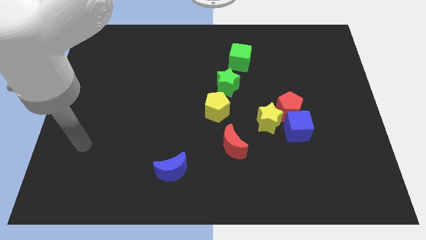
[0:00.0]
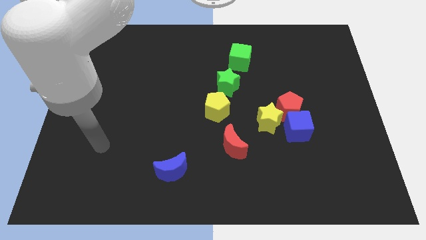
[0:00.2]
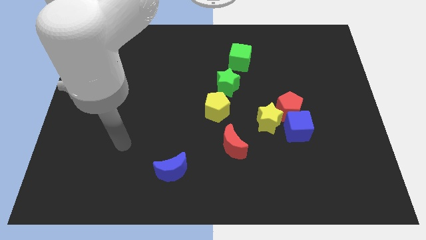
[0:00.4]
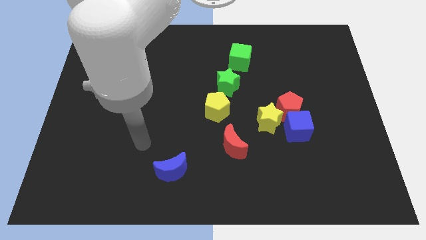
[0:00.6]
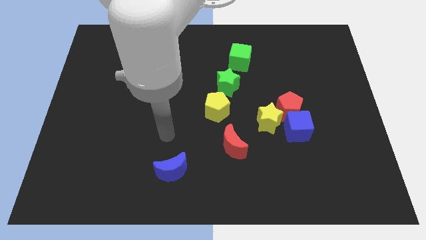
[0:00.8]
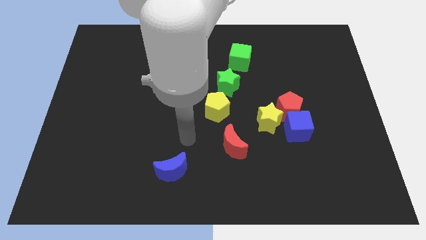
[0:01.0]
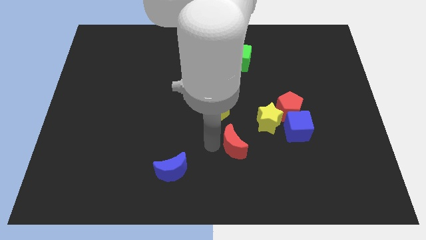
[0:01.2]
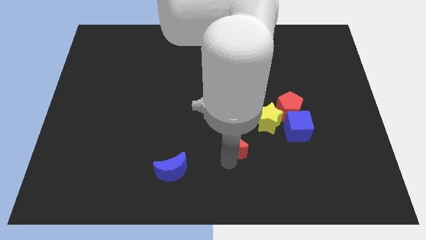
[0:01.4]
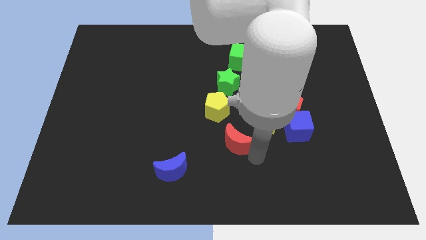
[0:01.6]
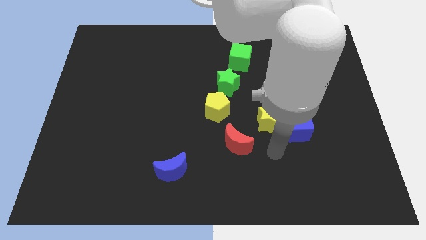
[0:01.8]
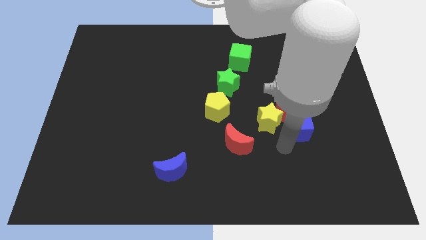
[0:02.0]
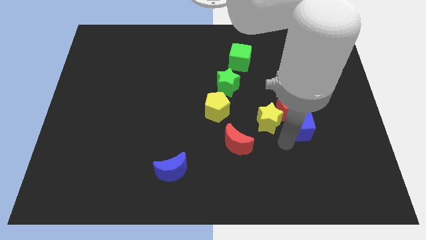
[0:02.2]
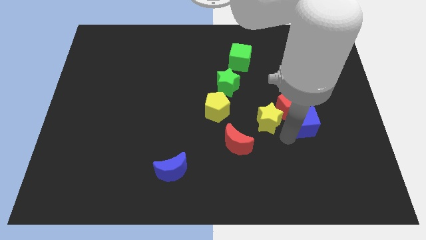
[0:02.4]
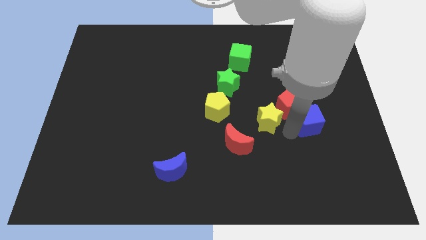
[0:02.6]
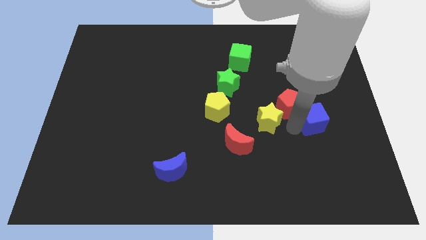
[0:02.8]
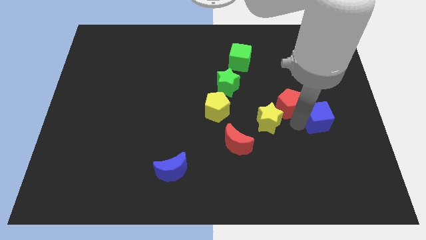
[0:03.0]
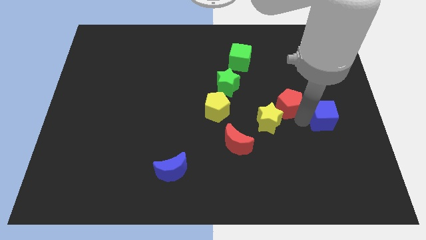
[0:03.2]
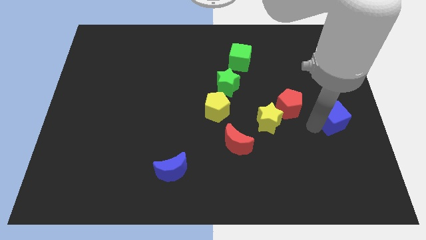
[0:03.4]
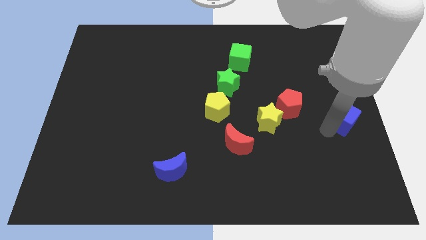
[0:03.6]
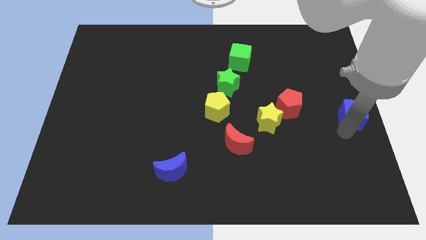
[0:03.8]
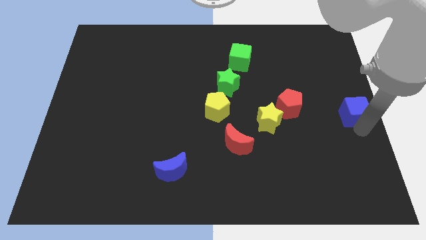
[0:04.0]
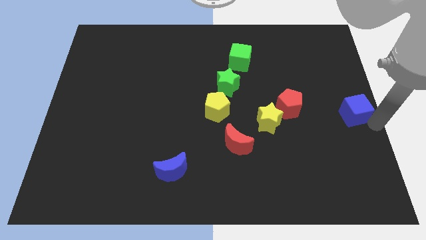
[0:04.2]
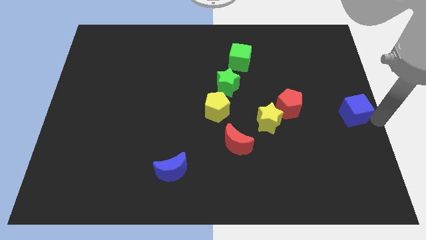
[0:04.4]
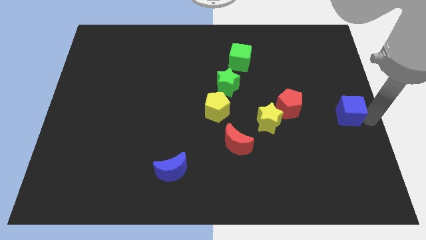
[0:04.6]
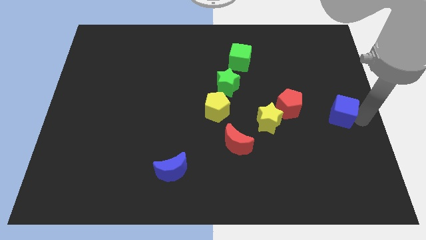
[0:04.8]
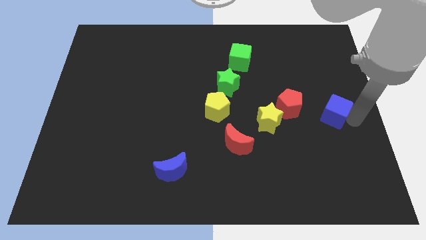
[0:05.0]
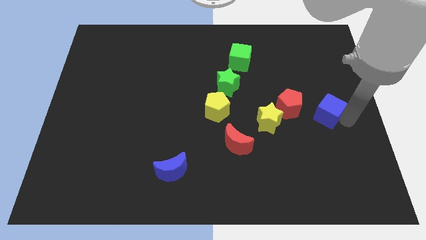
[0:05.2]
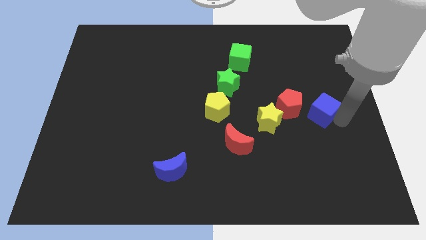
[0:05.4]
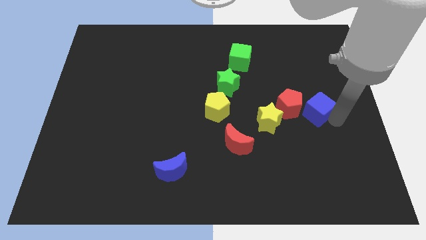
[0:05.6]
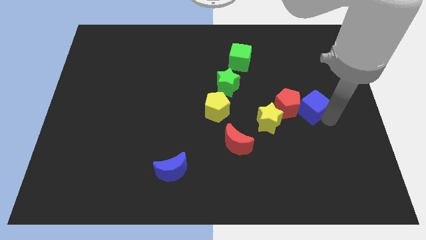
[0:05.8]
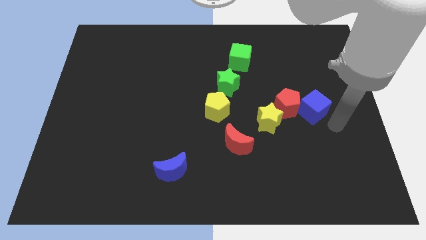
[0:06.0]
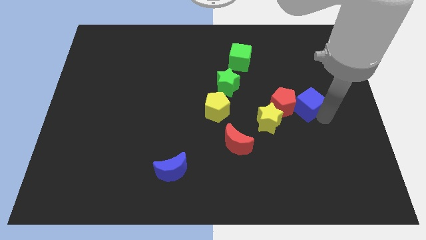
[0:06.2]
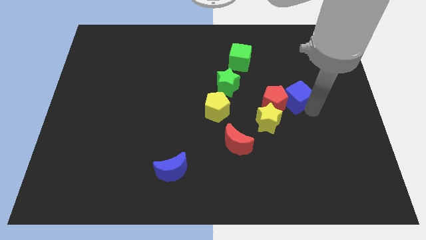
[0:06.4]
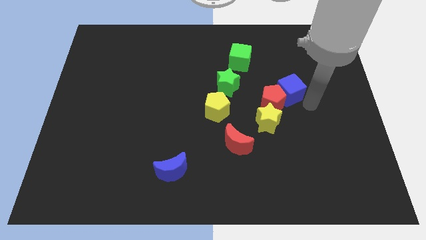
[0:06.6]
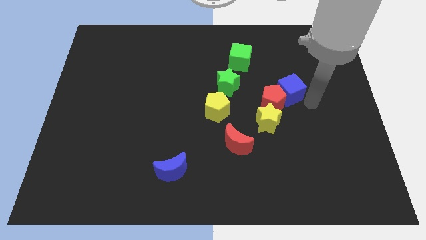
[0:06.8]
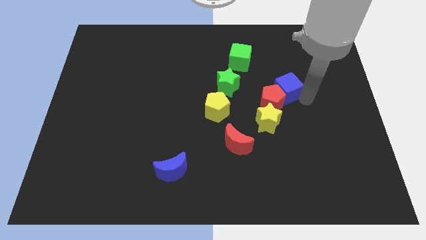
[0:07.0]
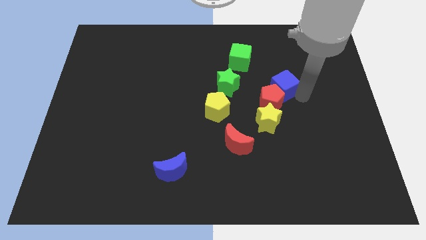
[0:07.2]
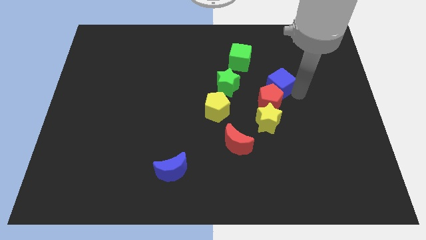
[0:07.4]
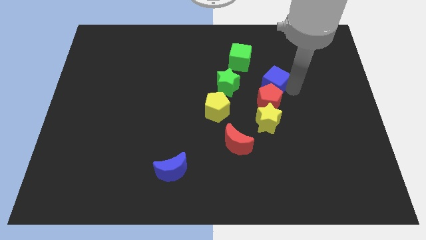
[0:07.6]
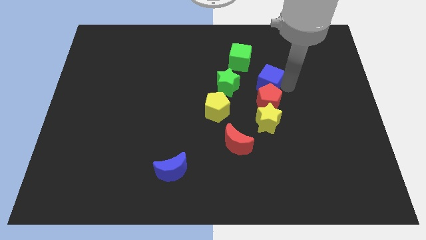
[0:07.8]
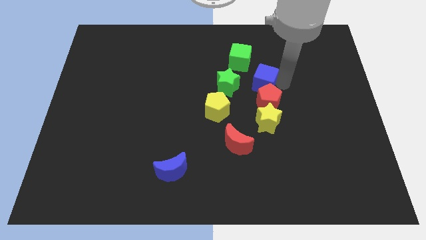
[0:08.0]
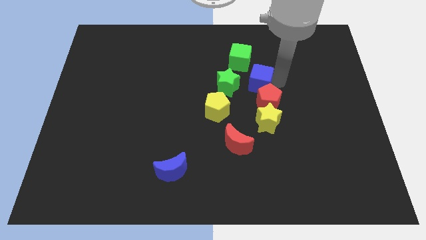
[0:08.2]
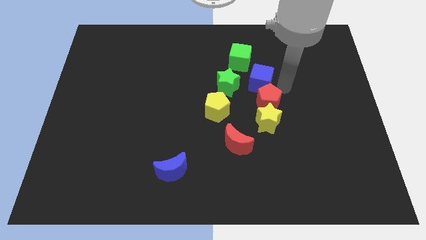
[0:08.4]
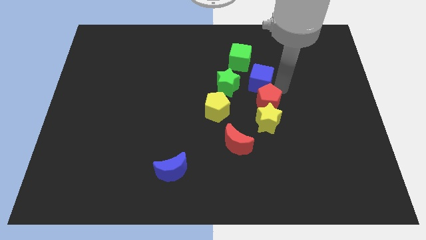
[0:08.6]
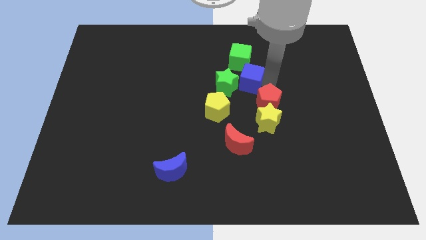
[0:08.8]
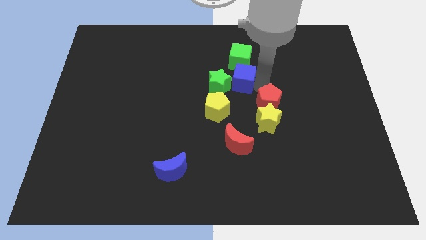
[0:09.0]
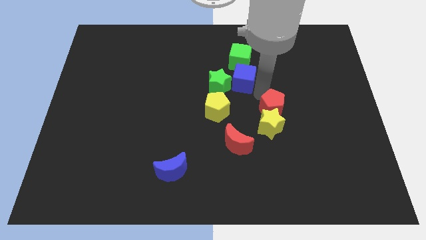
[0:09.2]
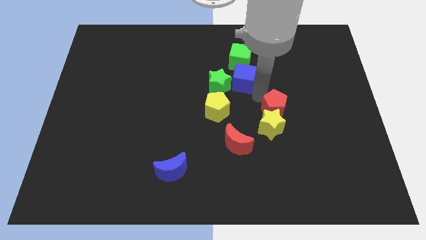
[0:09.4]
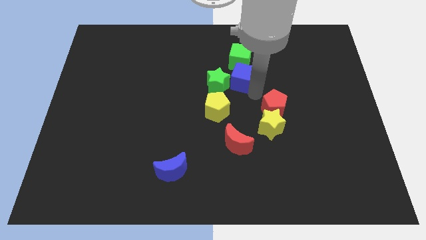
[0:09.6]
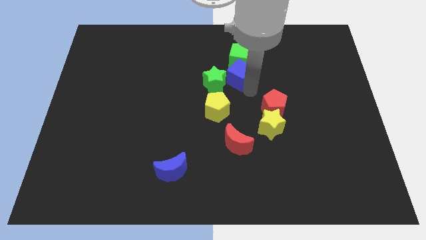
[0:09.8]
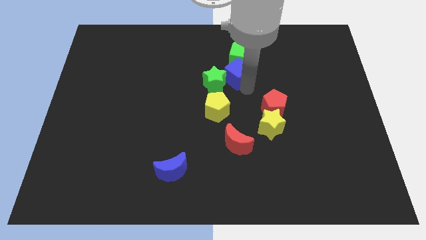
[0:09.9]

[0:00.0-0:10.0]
slide the blue cube up and then left

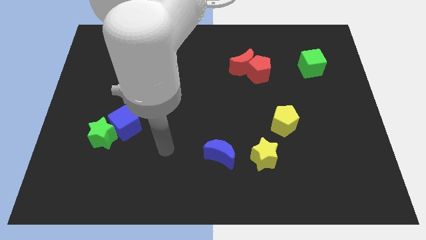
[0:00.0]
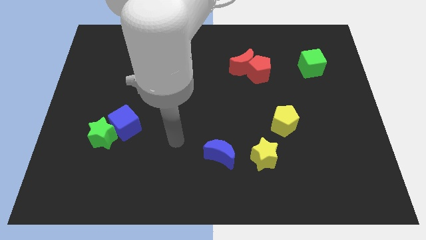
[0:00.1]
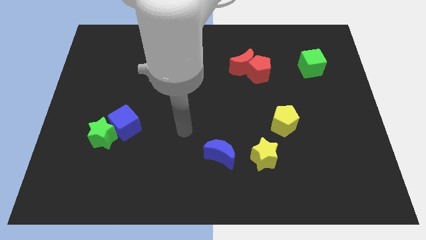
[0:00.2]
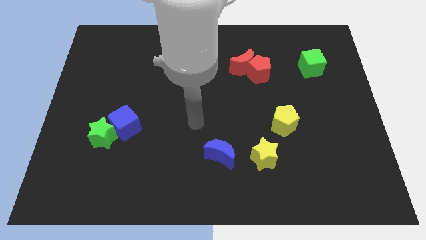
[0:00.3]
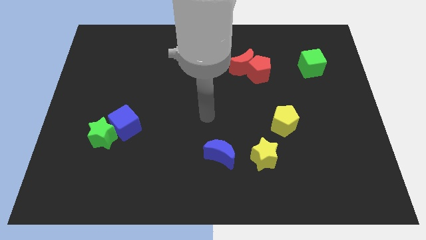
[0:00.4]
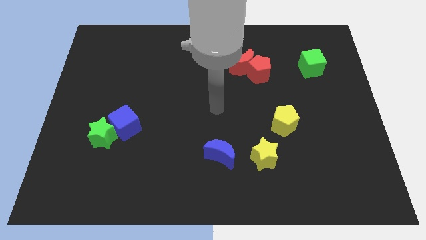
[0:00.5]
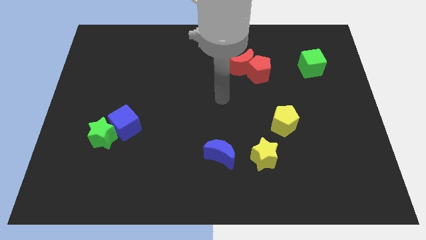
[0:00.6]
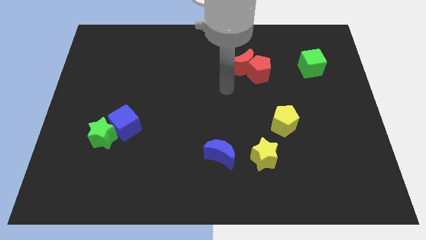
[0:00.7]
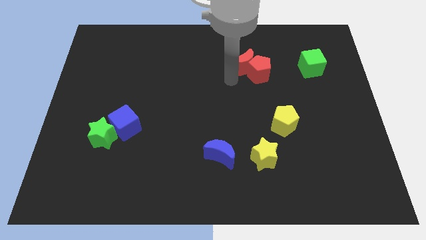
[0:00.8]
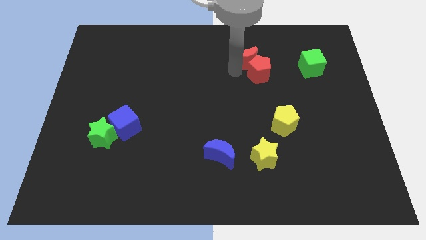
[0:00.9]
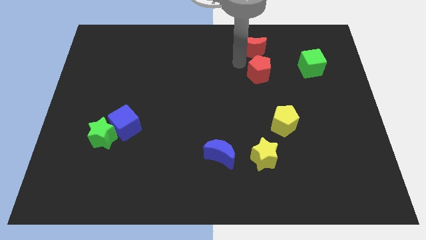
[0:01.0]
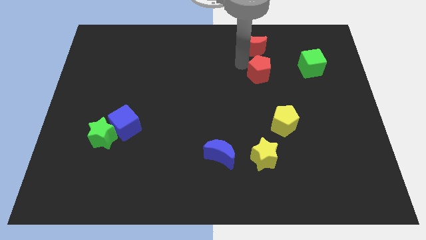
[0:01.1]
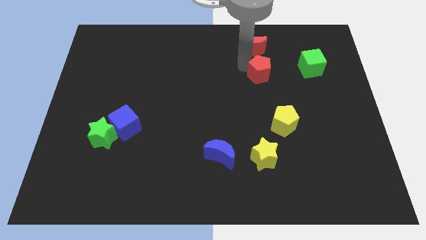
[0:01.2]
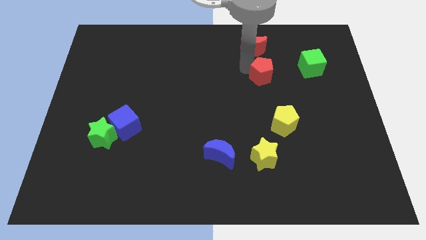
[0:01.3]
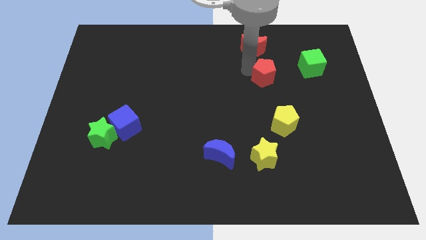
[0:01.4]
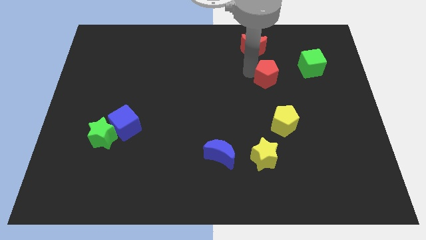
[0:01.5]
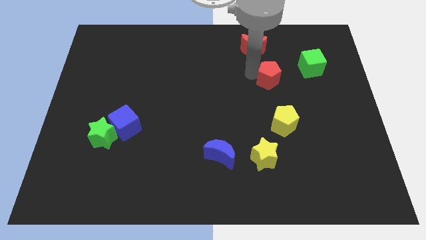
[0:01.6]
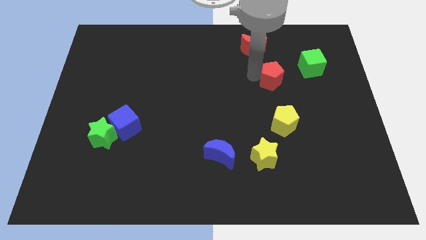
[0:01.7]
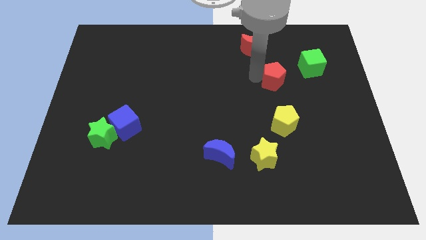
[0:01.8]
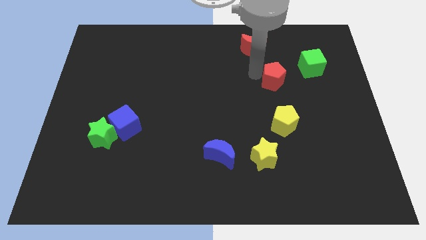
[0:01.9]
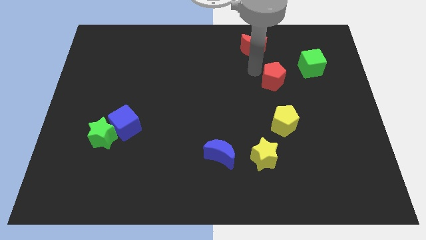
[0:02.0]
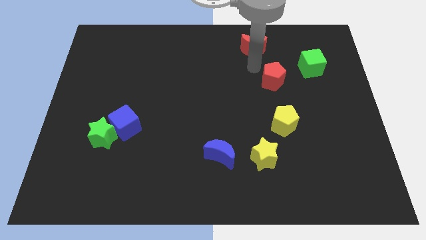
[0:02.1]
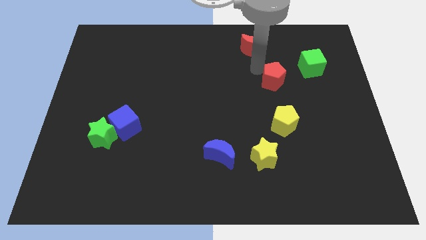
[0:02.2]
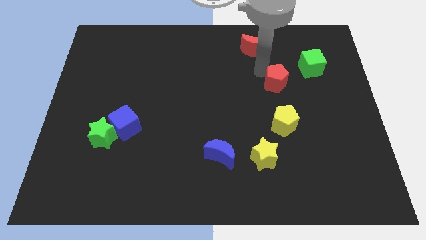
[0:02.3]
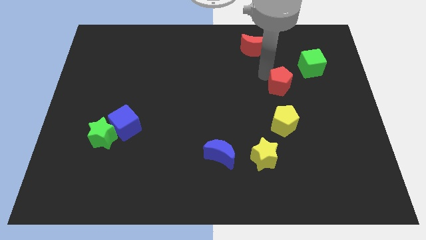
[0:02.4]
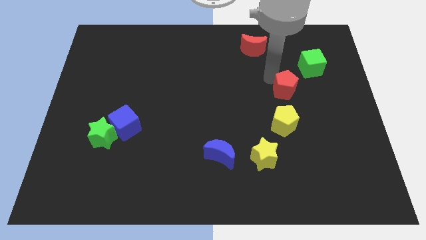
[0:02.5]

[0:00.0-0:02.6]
push the red pentagon a little bit down and right diagonally
